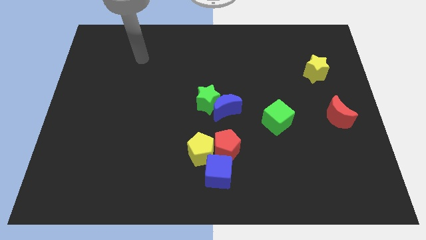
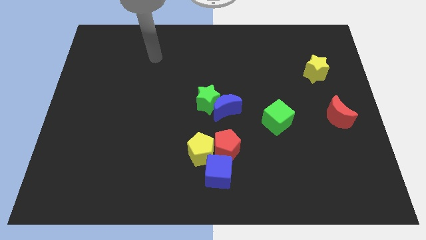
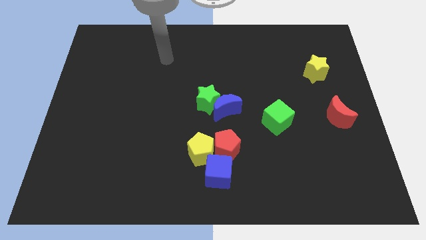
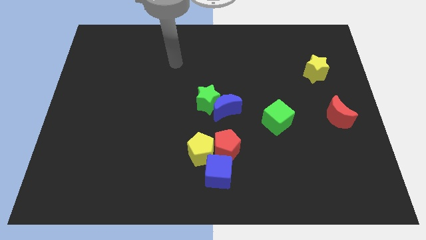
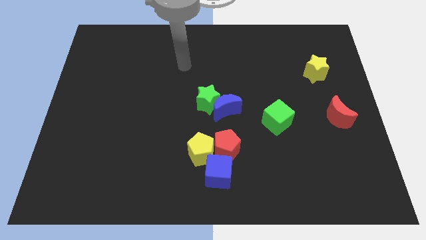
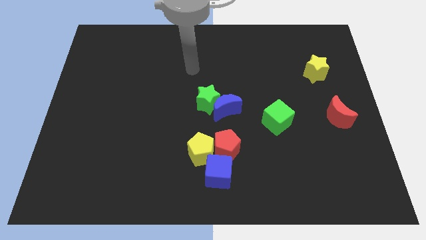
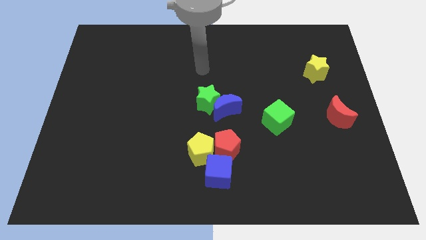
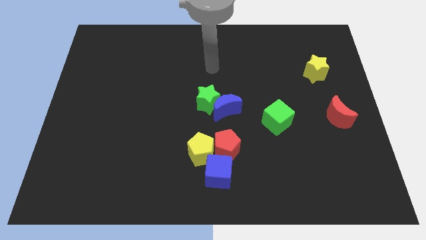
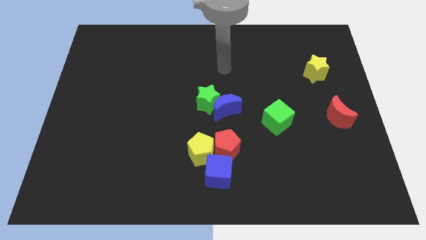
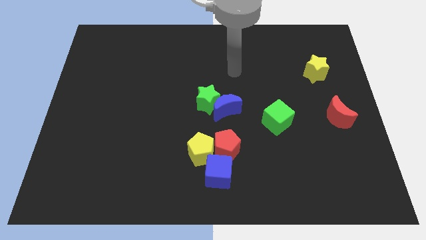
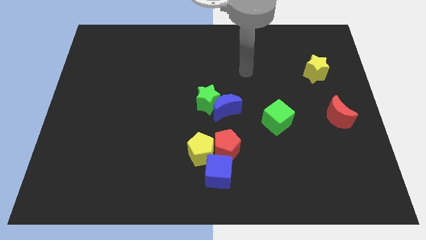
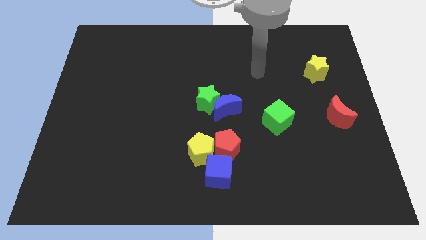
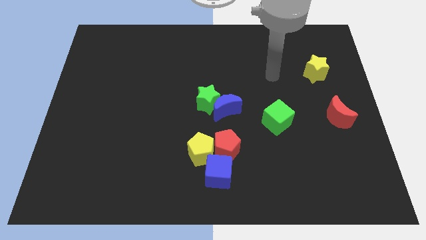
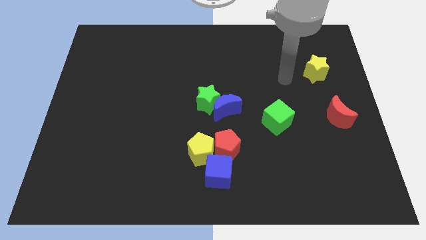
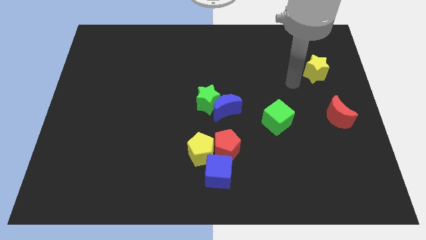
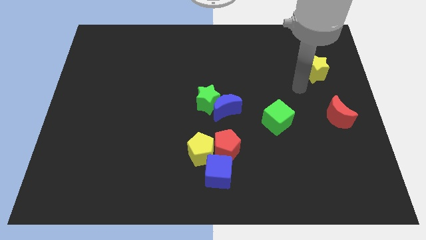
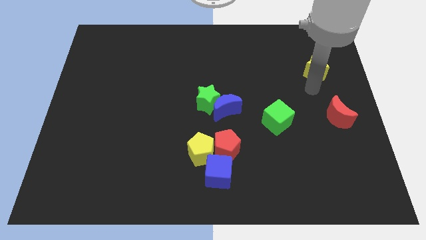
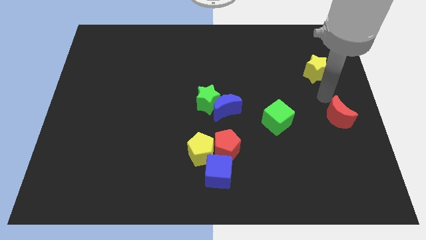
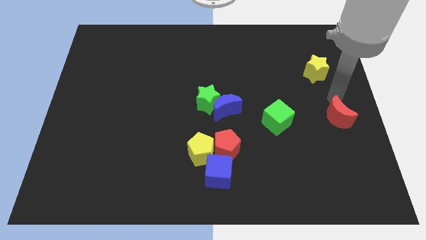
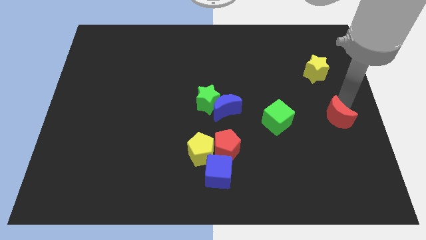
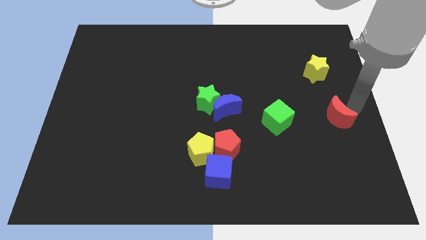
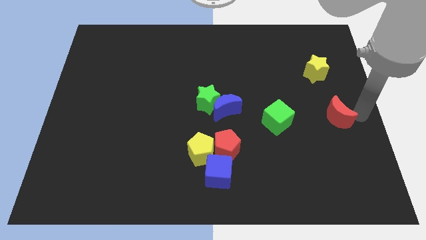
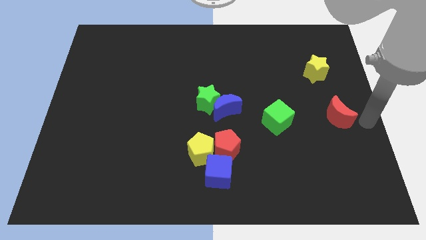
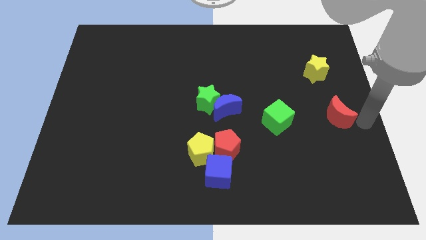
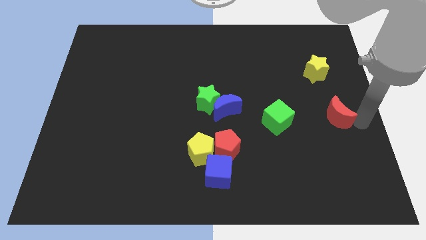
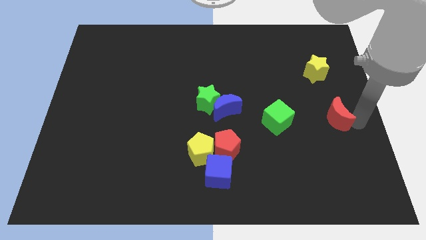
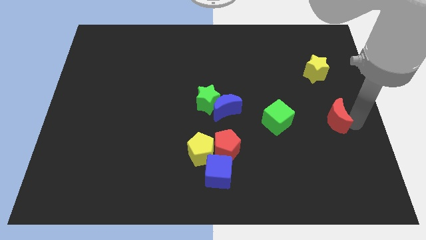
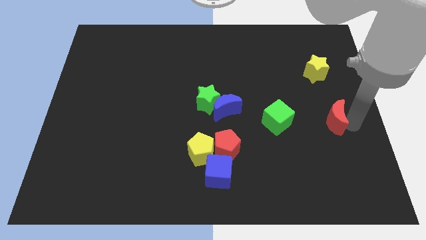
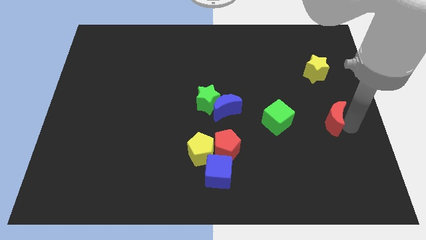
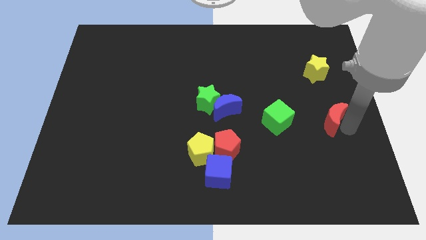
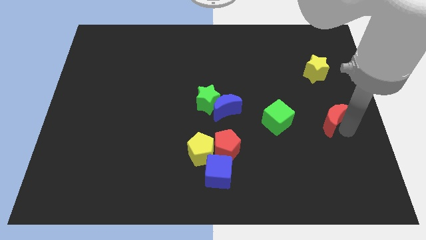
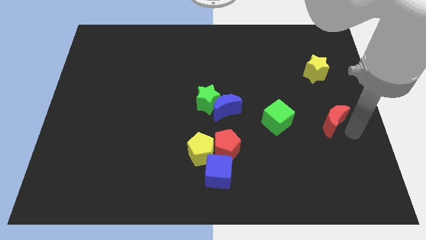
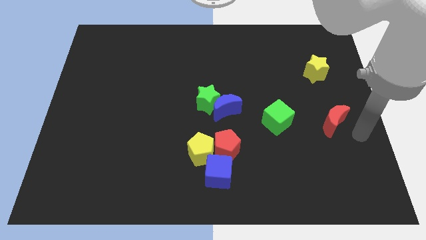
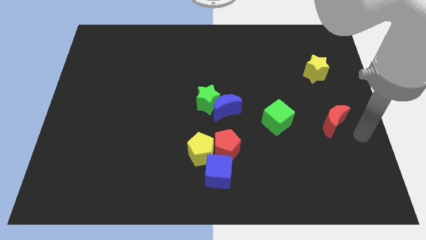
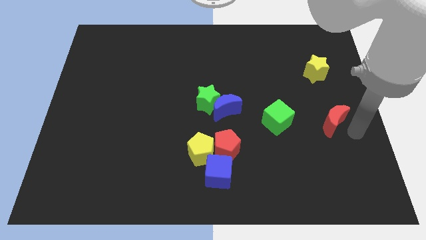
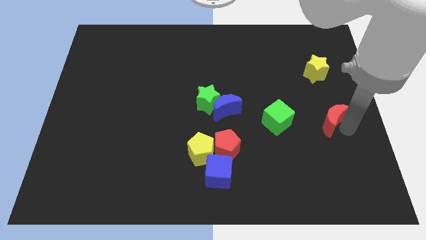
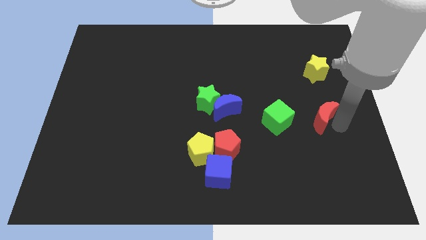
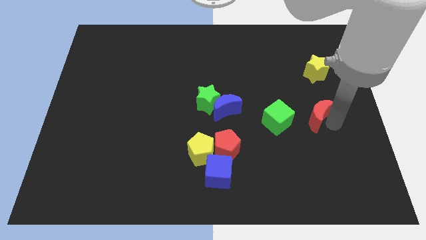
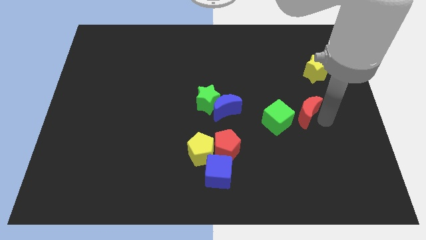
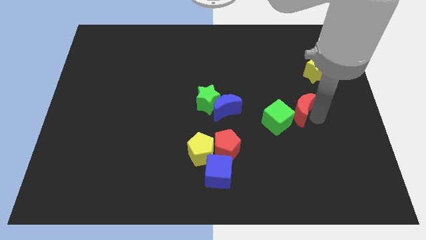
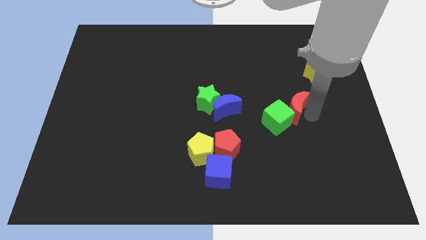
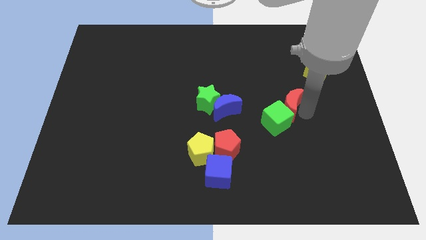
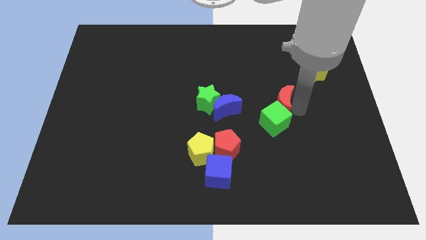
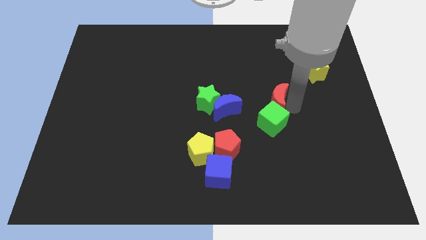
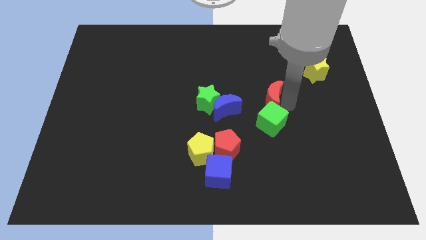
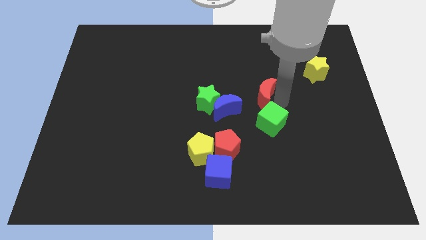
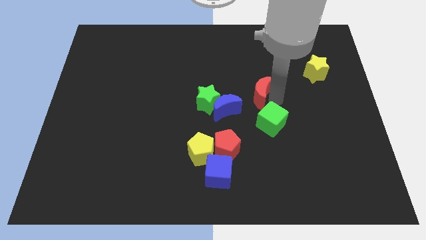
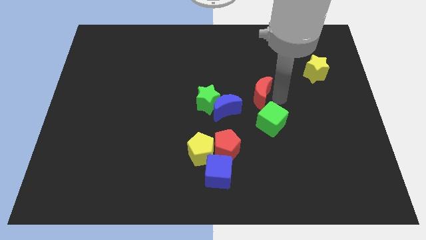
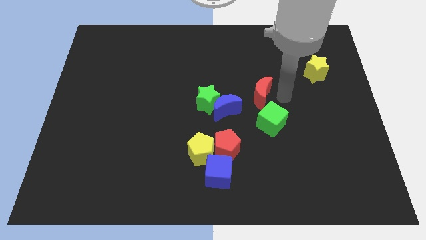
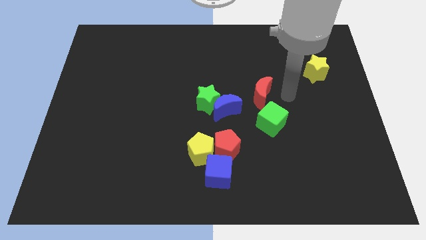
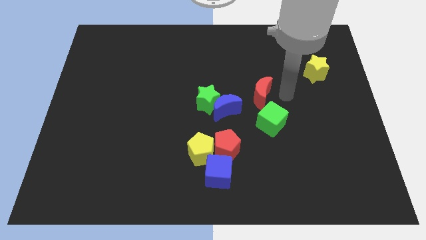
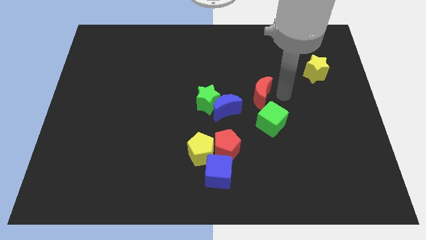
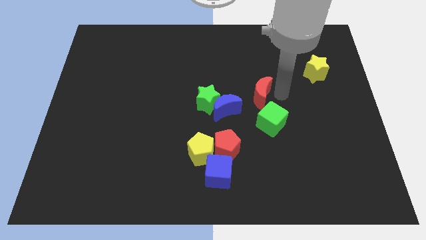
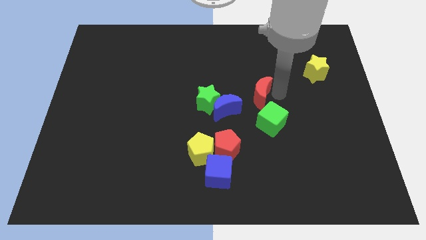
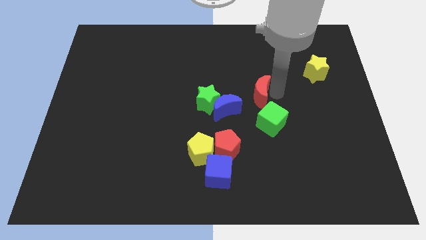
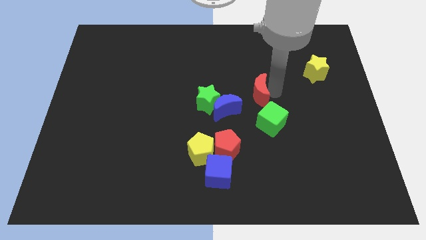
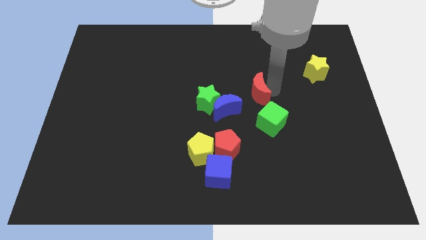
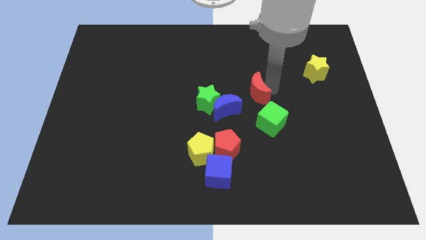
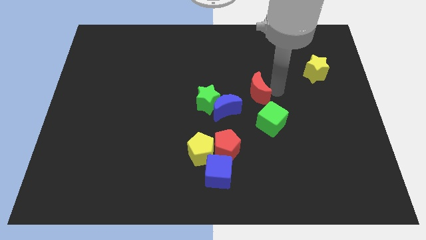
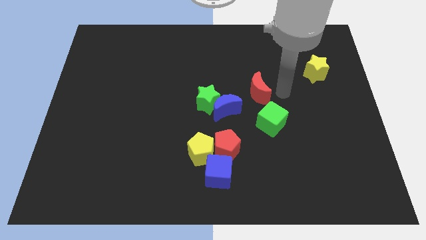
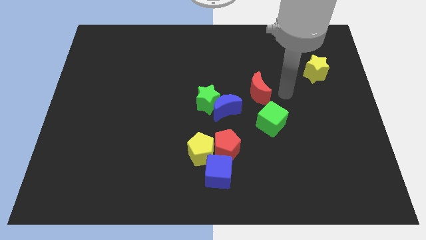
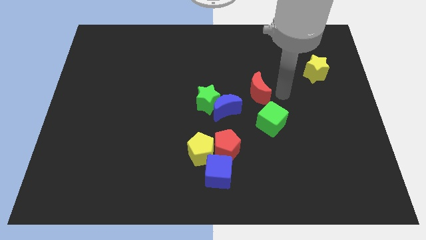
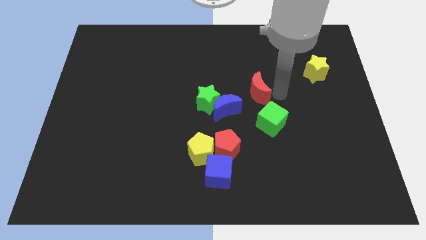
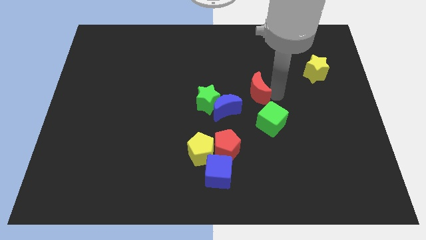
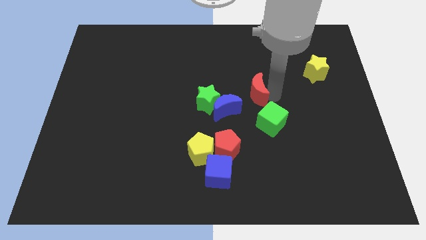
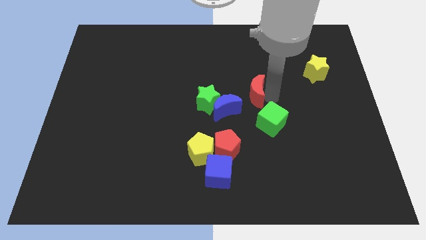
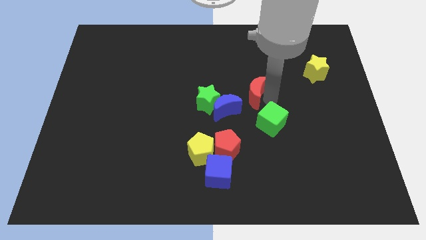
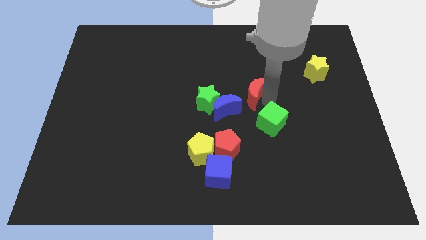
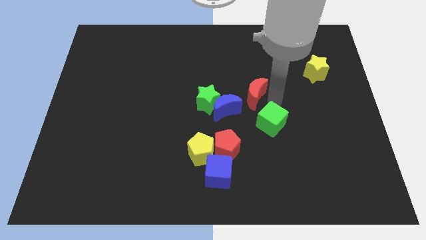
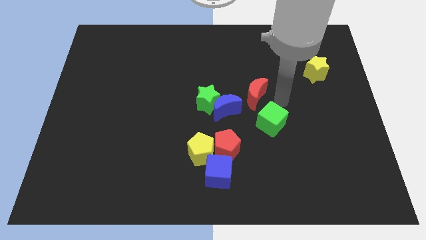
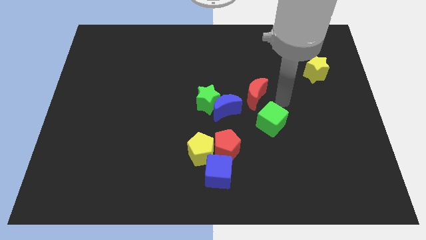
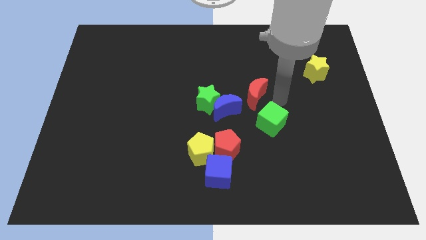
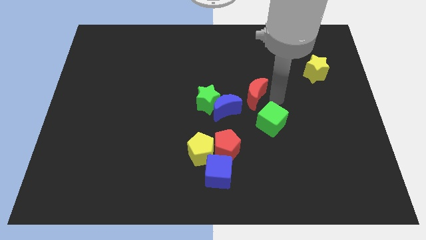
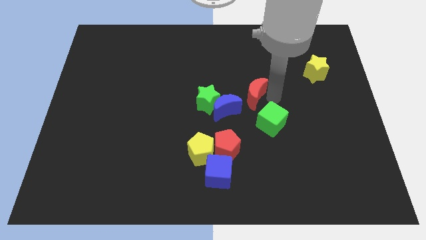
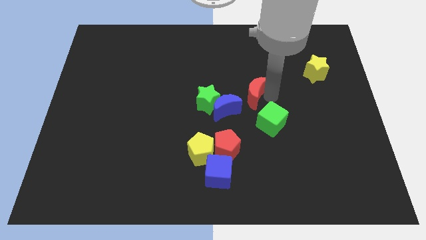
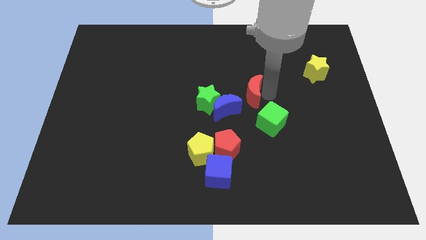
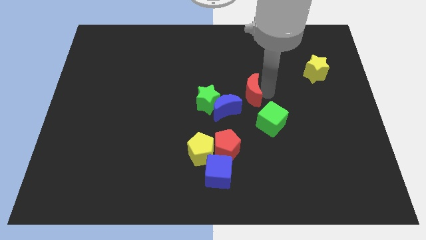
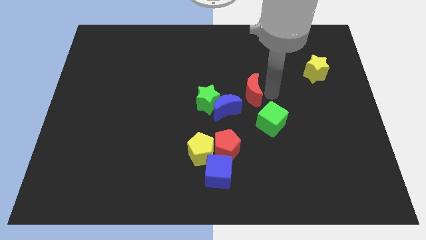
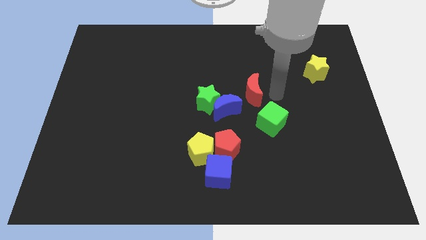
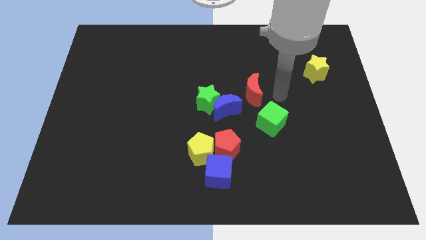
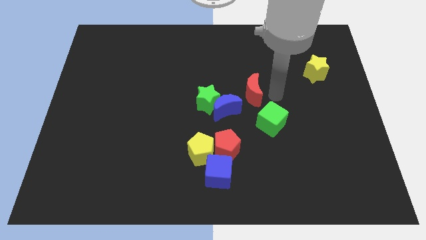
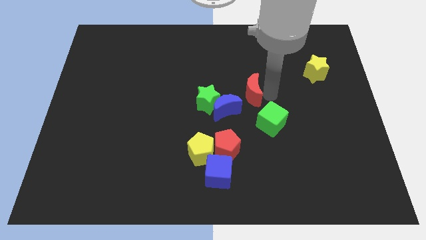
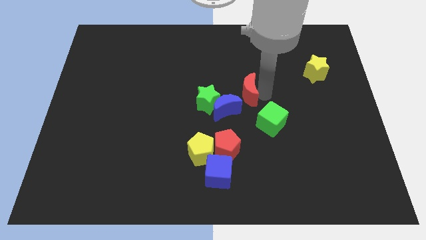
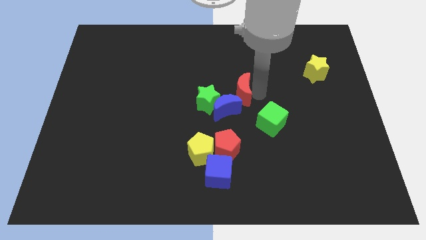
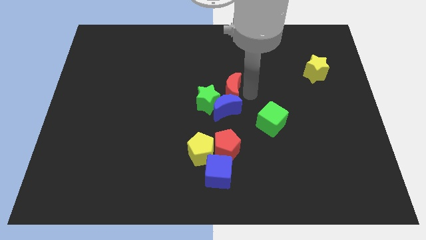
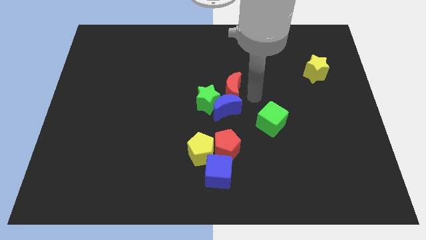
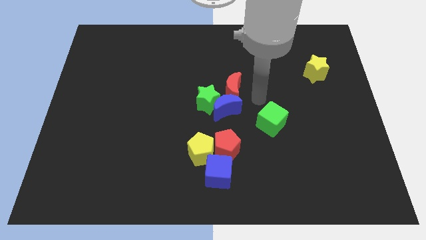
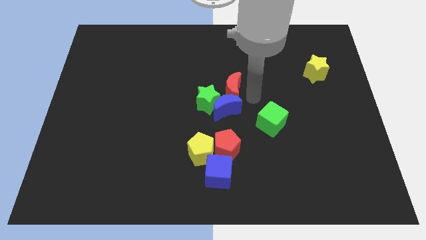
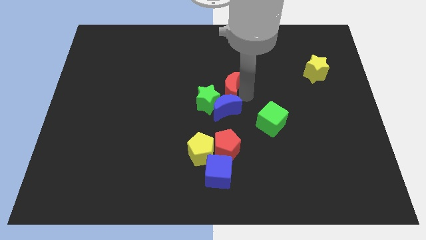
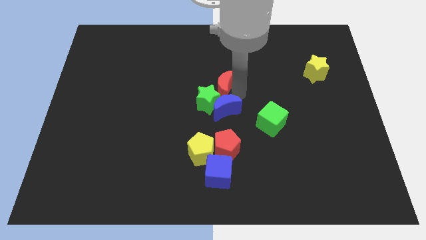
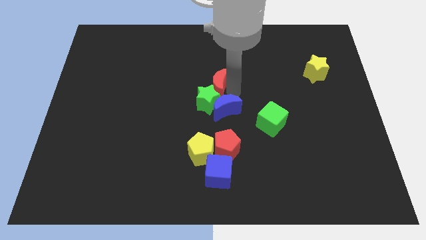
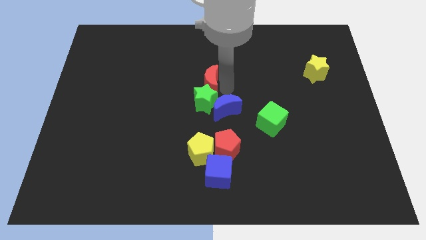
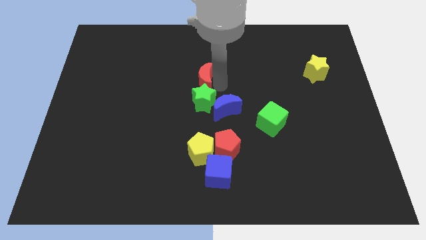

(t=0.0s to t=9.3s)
slide the red moon diagonally up and to the left of the green star
